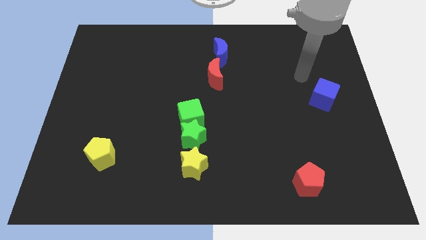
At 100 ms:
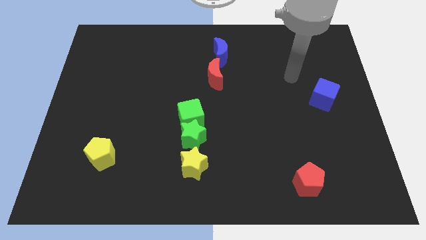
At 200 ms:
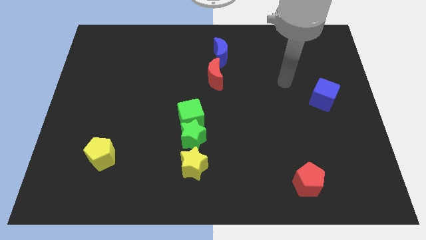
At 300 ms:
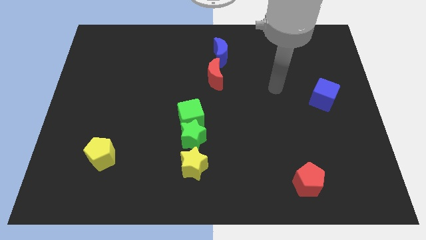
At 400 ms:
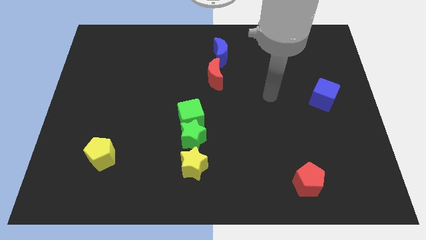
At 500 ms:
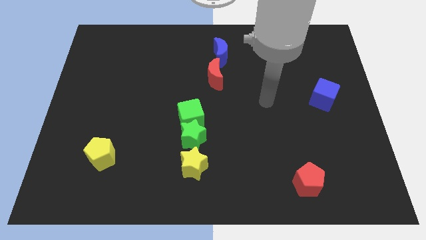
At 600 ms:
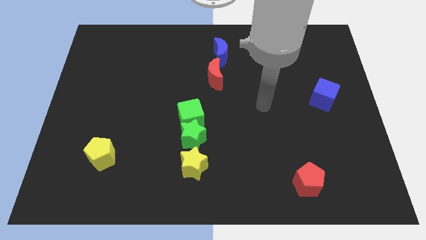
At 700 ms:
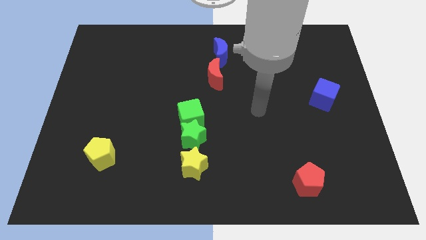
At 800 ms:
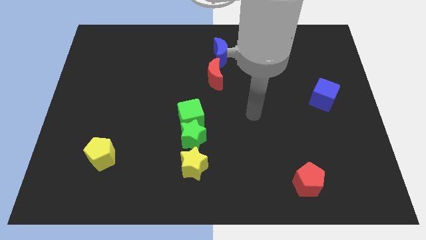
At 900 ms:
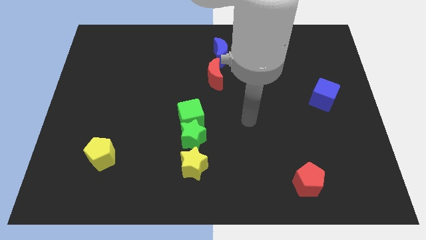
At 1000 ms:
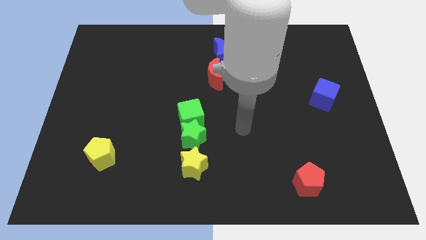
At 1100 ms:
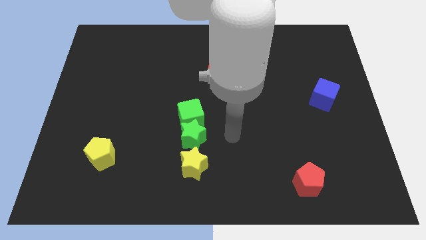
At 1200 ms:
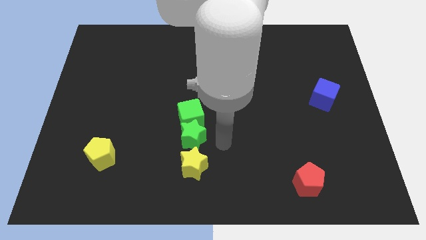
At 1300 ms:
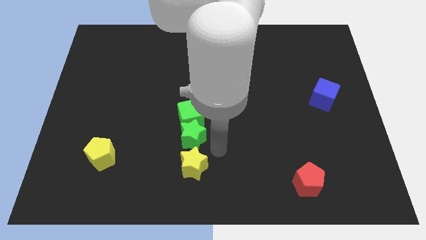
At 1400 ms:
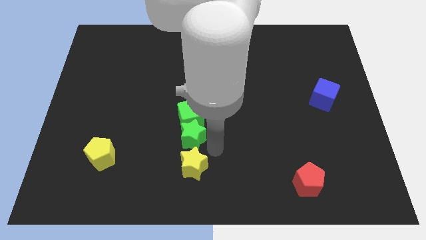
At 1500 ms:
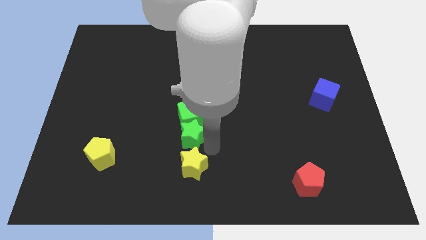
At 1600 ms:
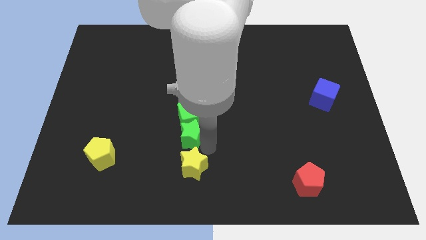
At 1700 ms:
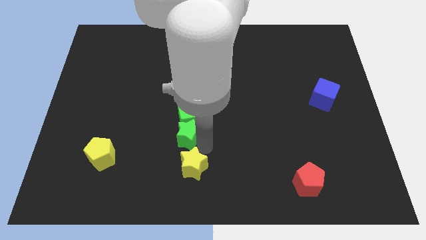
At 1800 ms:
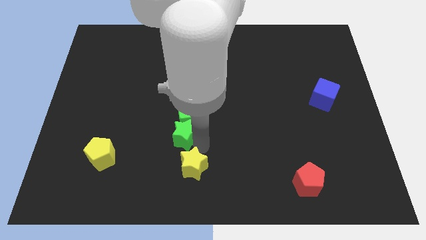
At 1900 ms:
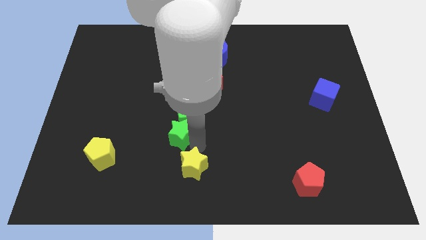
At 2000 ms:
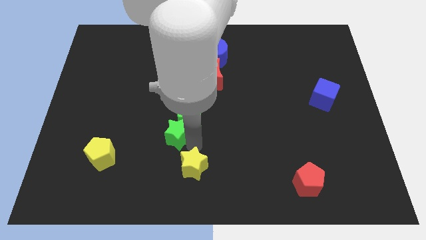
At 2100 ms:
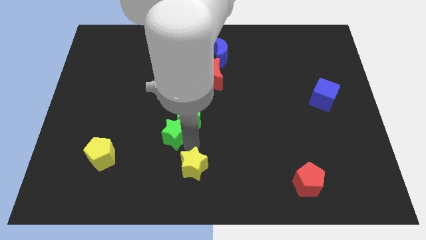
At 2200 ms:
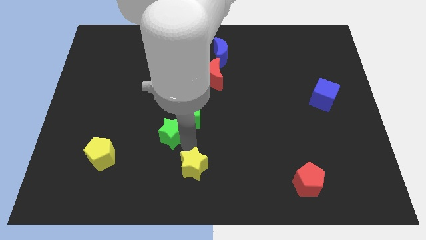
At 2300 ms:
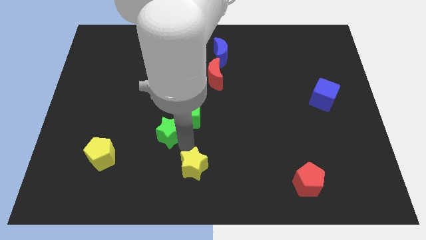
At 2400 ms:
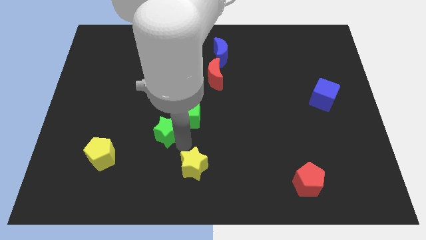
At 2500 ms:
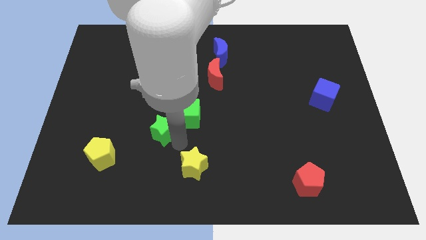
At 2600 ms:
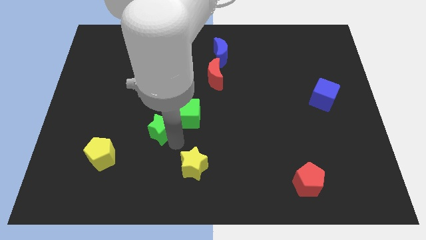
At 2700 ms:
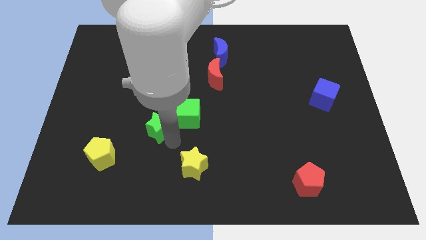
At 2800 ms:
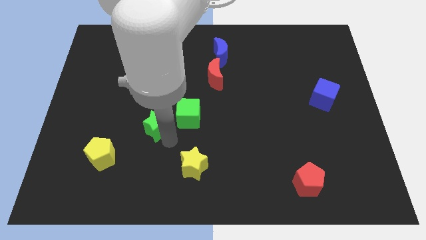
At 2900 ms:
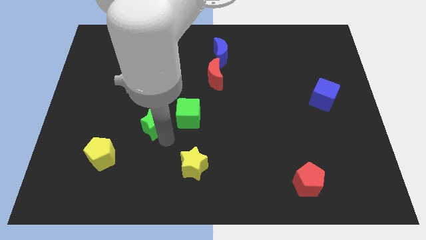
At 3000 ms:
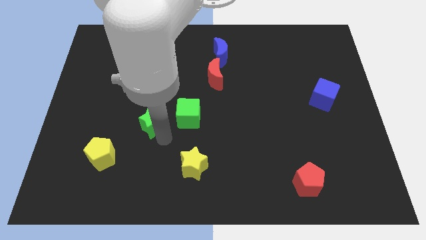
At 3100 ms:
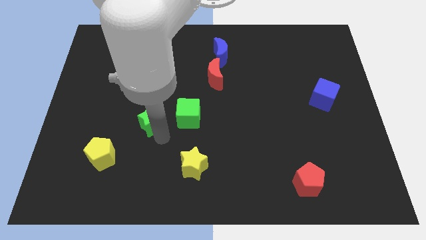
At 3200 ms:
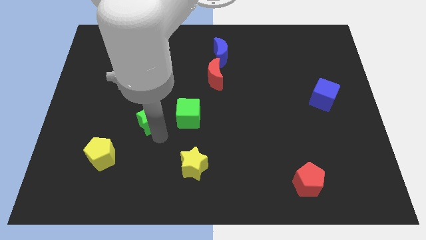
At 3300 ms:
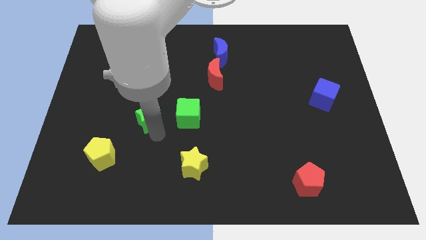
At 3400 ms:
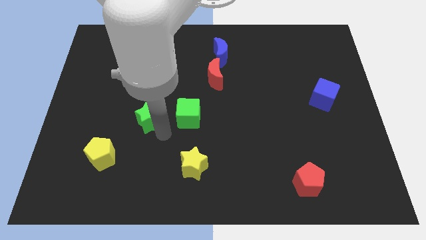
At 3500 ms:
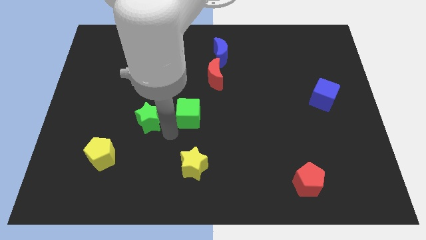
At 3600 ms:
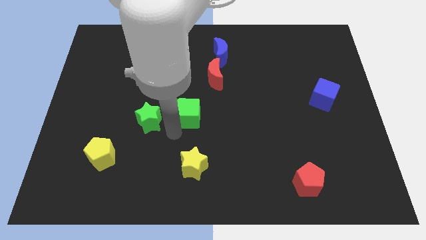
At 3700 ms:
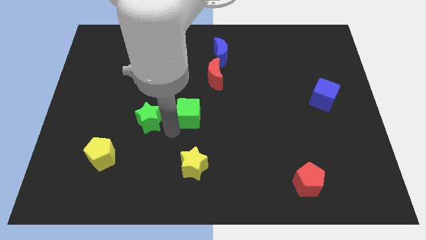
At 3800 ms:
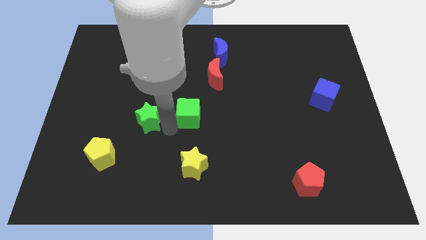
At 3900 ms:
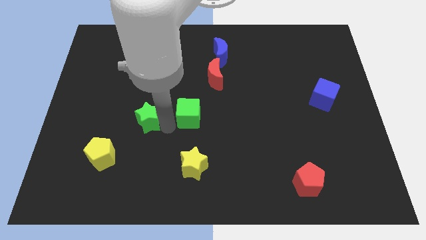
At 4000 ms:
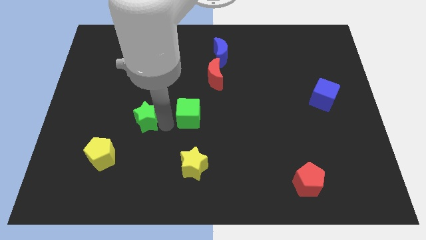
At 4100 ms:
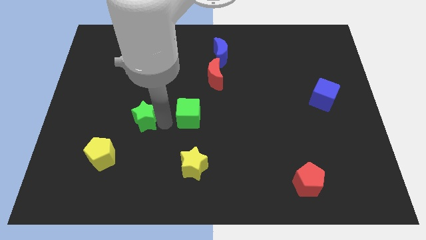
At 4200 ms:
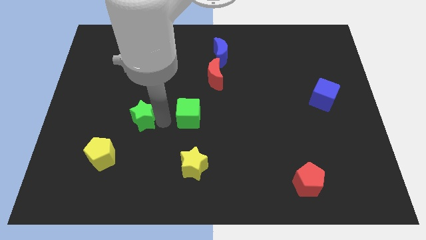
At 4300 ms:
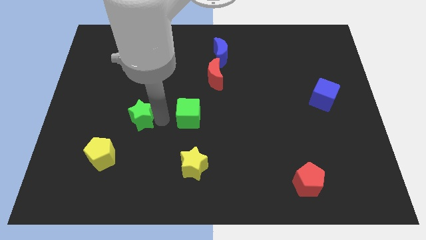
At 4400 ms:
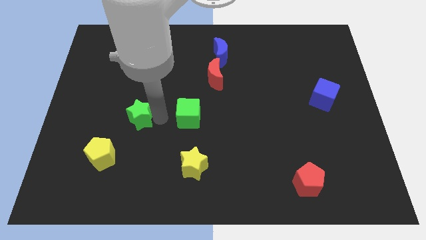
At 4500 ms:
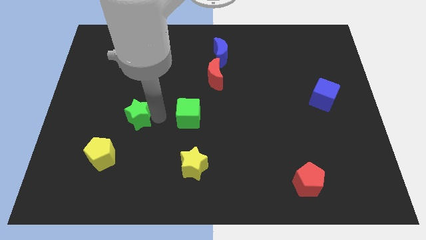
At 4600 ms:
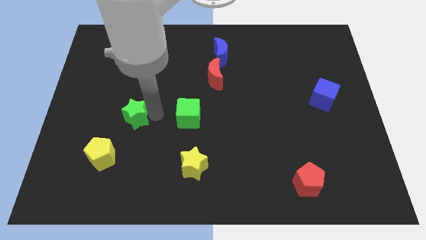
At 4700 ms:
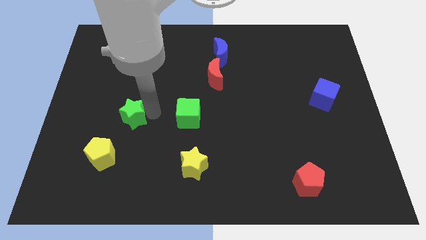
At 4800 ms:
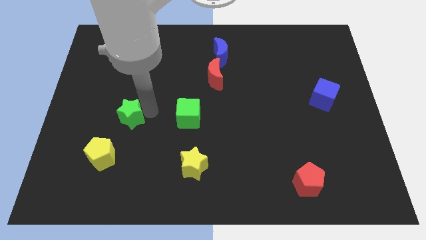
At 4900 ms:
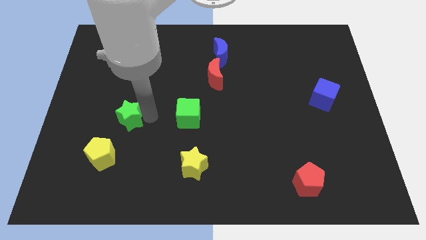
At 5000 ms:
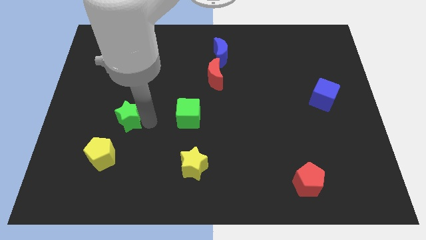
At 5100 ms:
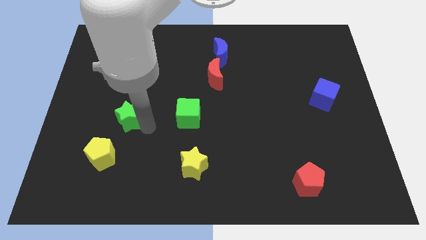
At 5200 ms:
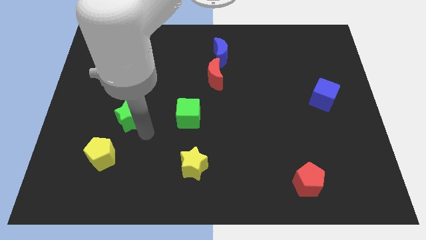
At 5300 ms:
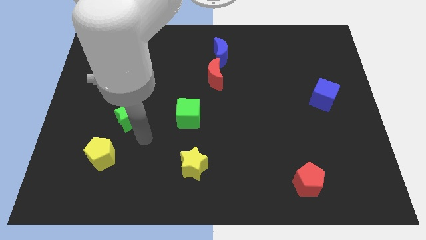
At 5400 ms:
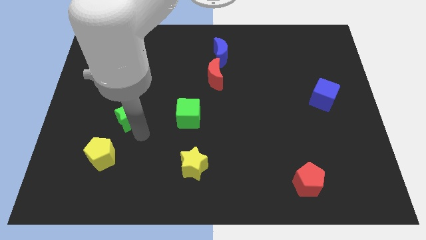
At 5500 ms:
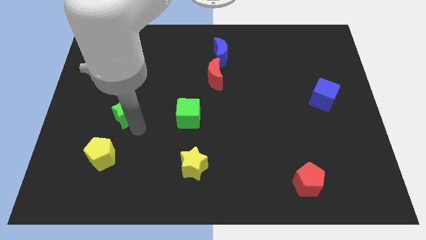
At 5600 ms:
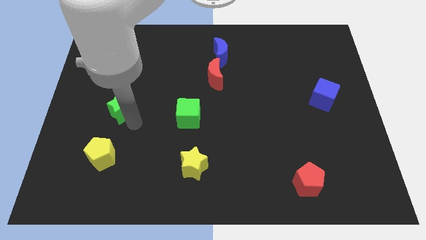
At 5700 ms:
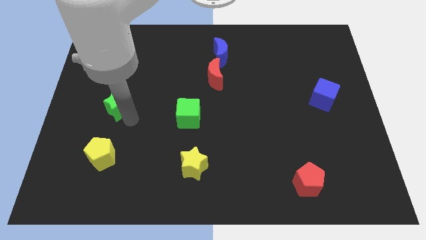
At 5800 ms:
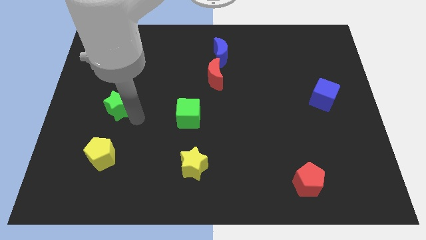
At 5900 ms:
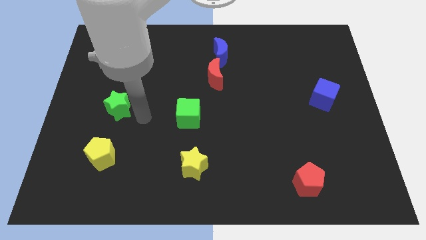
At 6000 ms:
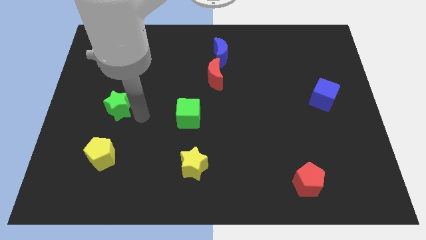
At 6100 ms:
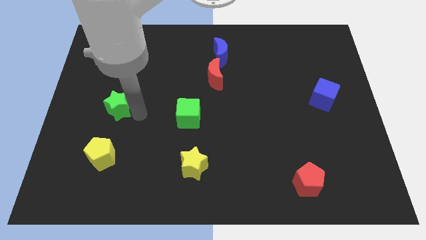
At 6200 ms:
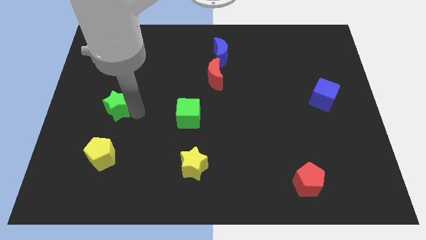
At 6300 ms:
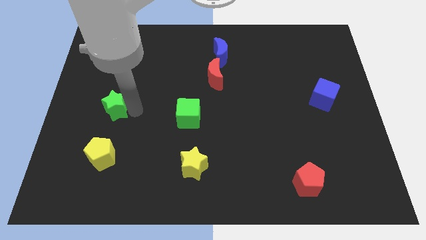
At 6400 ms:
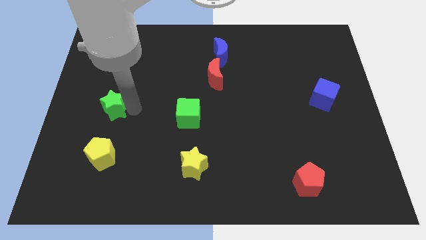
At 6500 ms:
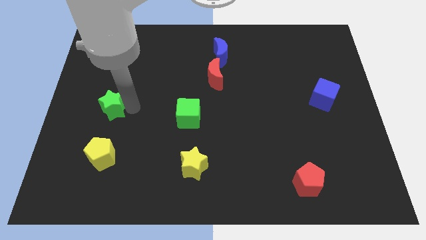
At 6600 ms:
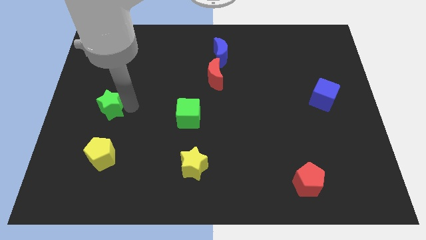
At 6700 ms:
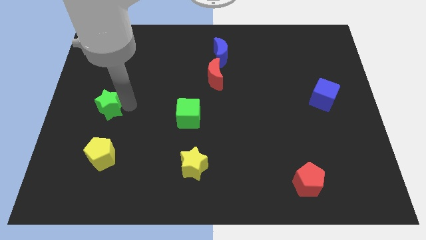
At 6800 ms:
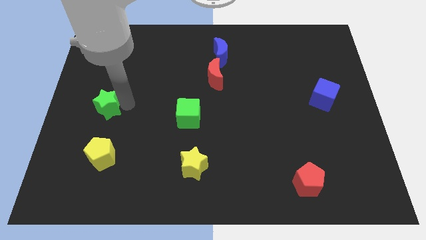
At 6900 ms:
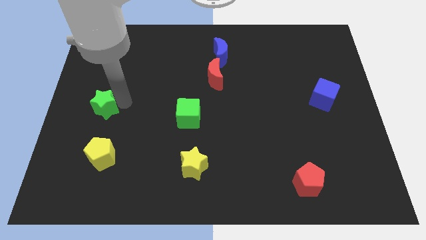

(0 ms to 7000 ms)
put the green star to the left side of the board
